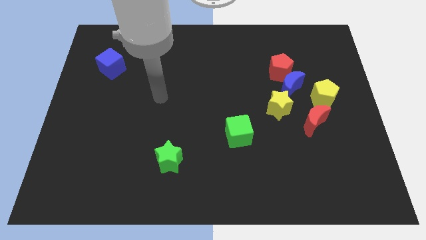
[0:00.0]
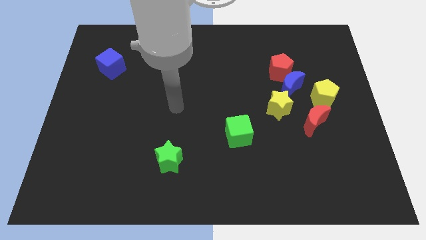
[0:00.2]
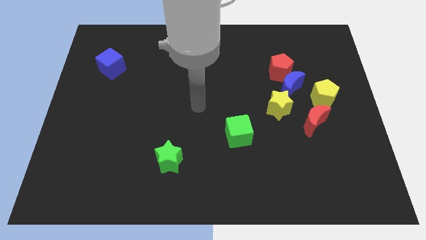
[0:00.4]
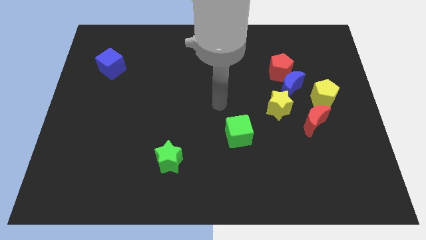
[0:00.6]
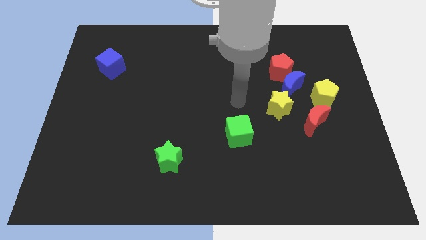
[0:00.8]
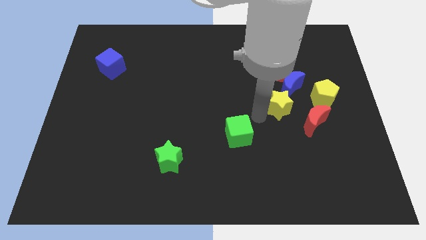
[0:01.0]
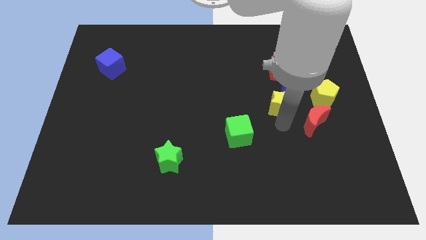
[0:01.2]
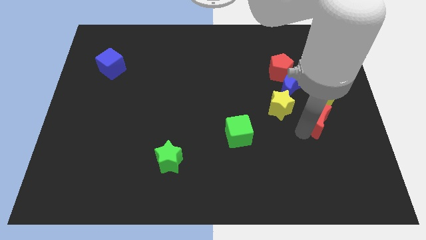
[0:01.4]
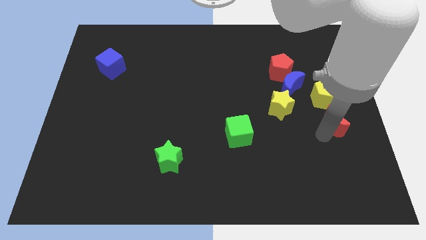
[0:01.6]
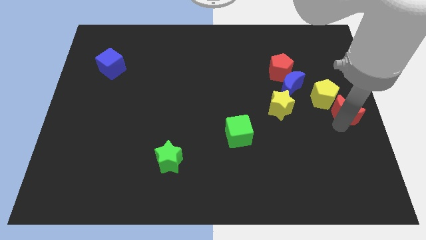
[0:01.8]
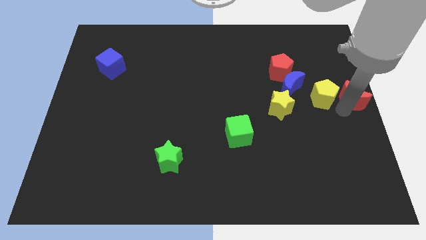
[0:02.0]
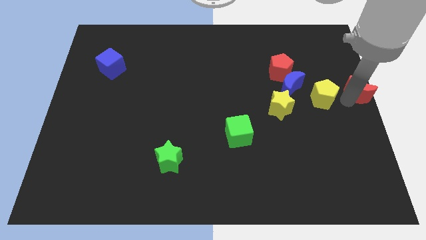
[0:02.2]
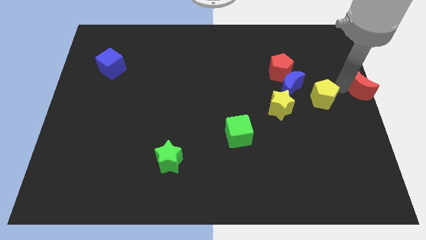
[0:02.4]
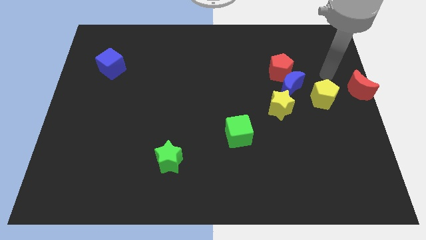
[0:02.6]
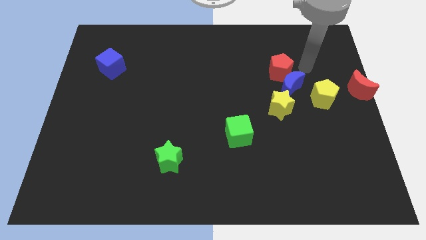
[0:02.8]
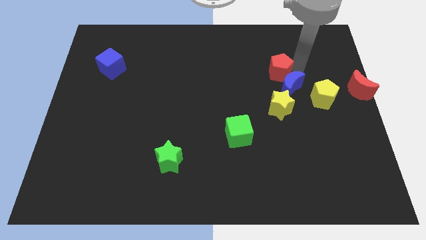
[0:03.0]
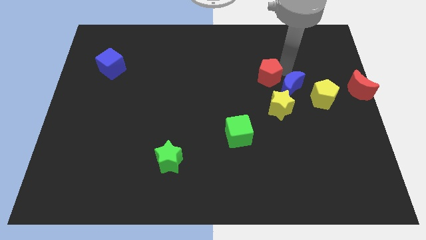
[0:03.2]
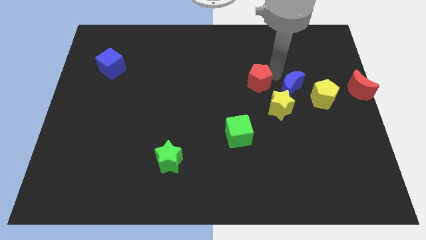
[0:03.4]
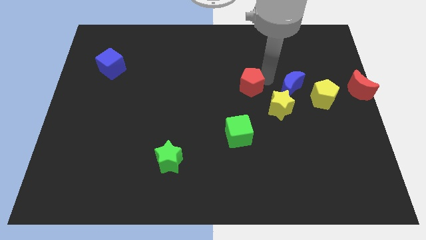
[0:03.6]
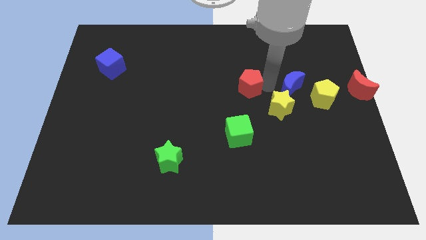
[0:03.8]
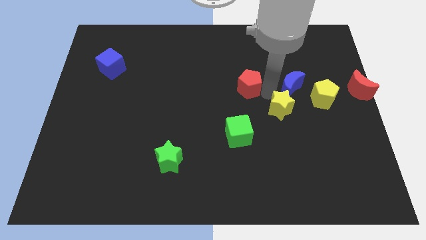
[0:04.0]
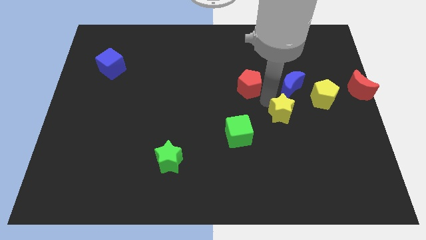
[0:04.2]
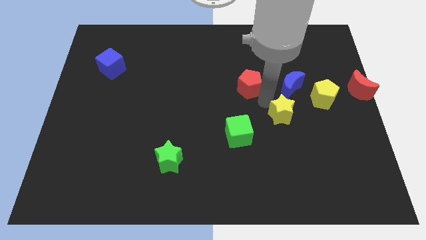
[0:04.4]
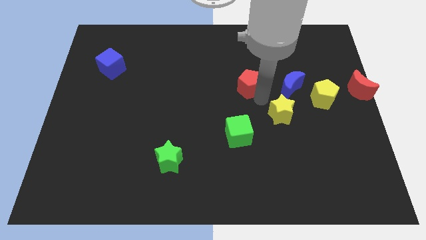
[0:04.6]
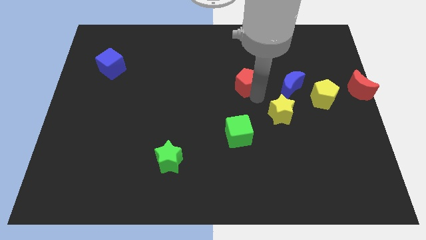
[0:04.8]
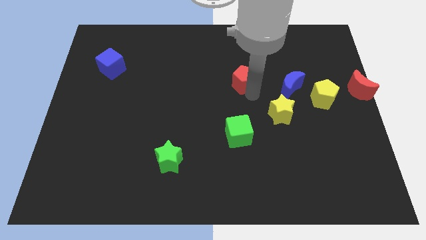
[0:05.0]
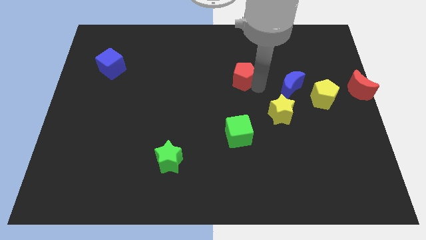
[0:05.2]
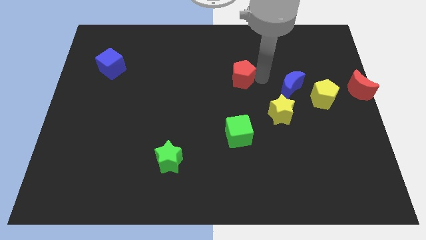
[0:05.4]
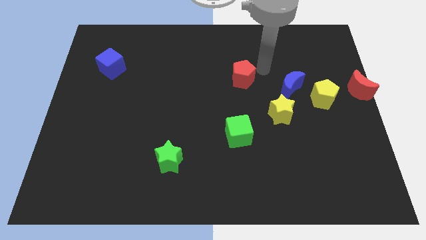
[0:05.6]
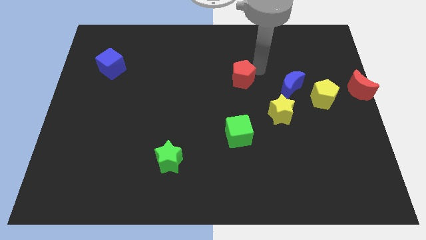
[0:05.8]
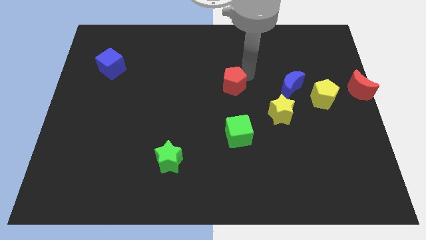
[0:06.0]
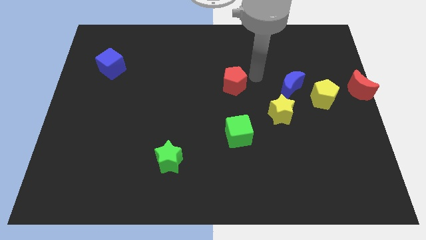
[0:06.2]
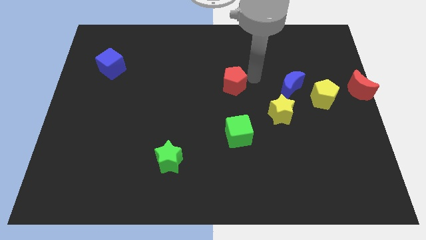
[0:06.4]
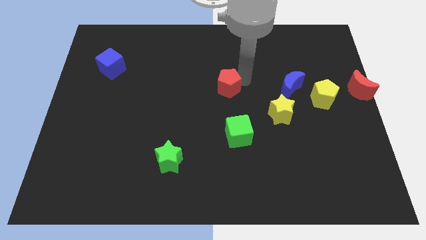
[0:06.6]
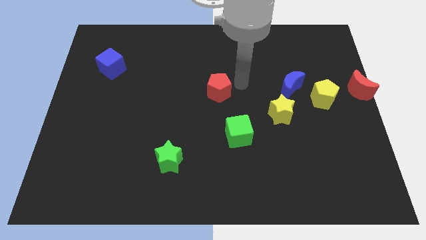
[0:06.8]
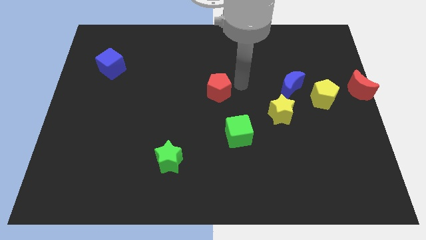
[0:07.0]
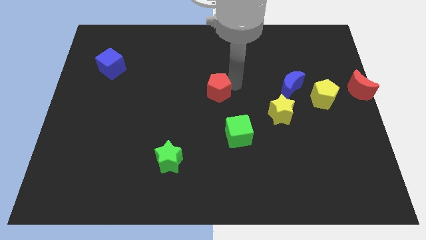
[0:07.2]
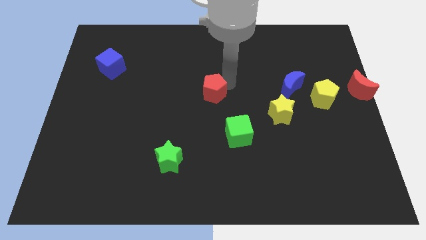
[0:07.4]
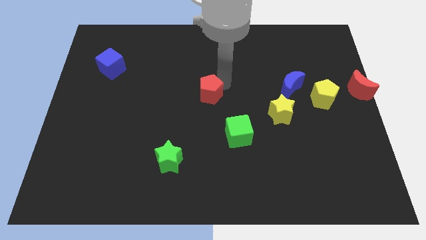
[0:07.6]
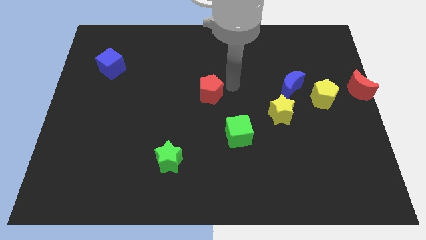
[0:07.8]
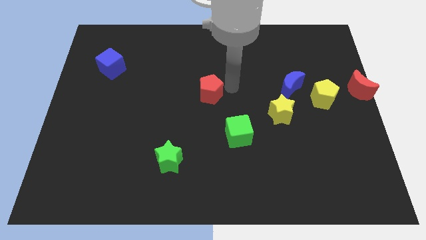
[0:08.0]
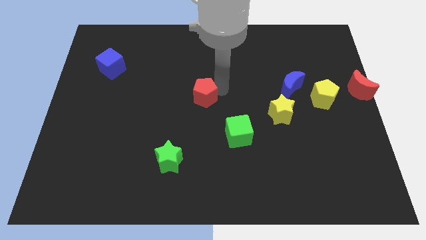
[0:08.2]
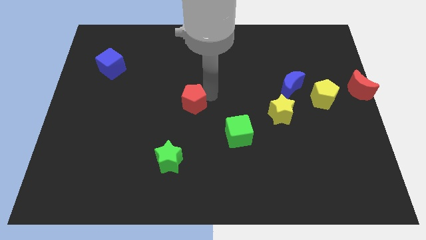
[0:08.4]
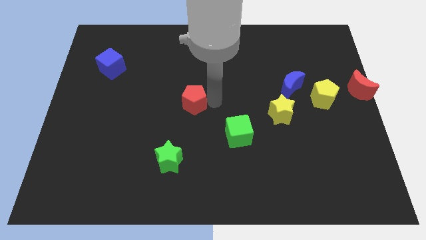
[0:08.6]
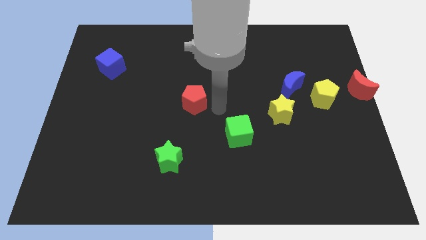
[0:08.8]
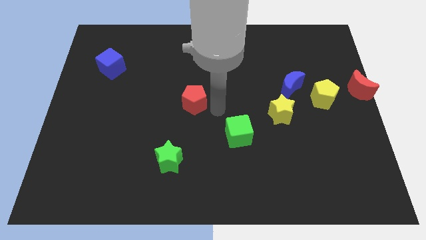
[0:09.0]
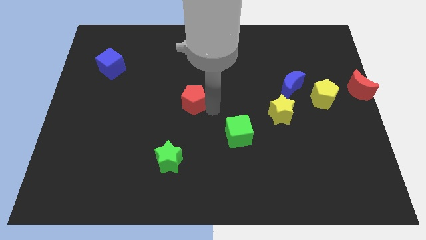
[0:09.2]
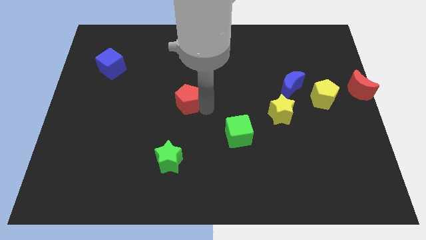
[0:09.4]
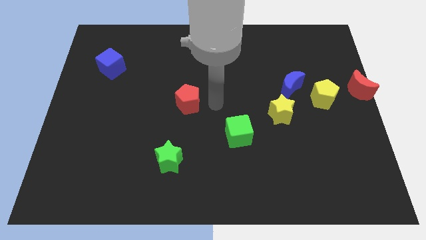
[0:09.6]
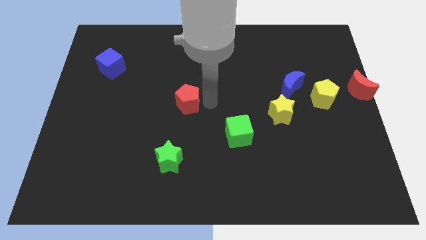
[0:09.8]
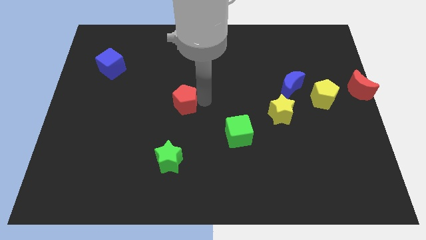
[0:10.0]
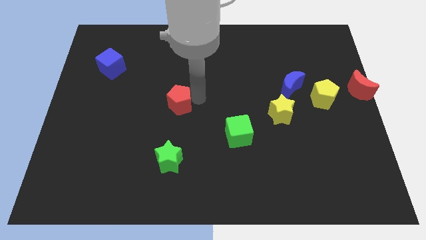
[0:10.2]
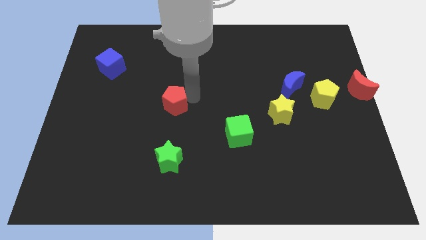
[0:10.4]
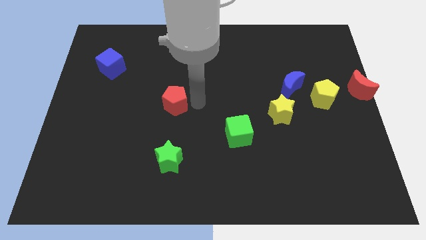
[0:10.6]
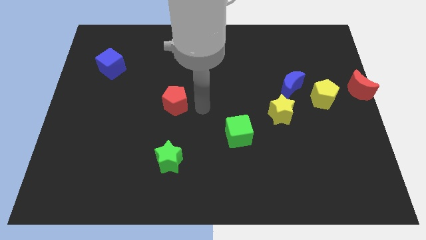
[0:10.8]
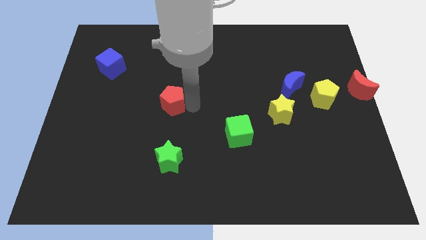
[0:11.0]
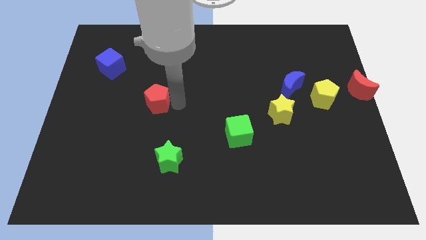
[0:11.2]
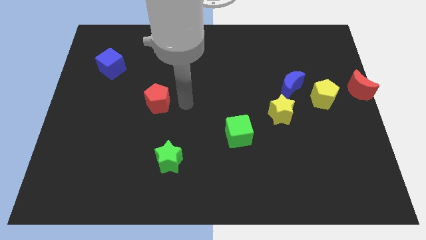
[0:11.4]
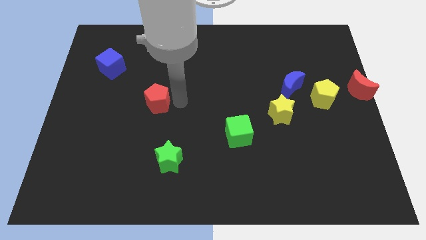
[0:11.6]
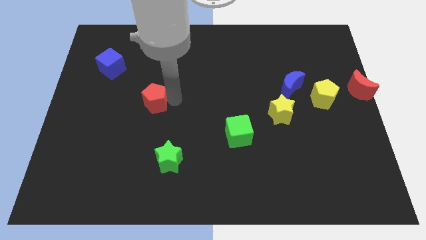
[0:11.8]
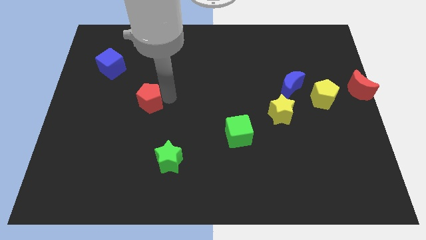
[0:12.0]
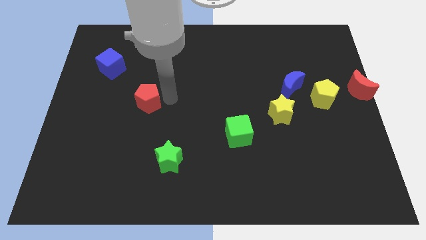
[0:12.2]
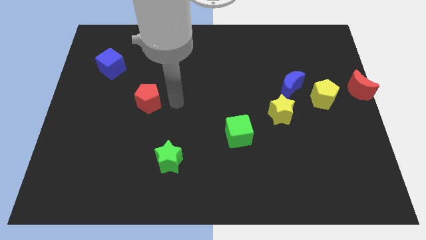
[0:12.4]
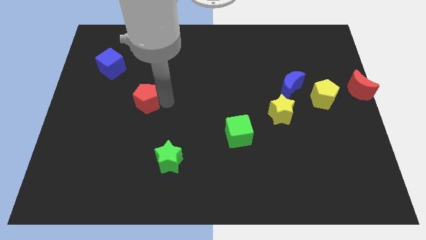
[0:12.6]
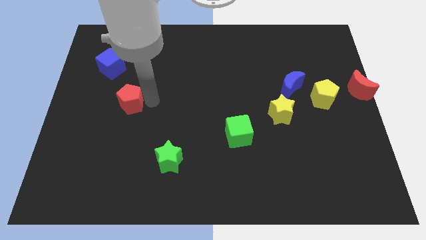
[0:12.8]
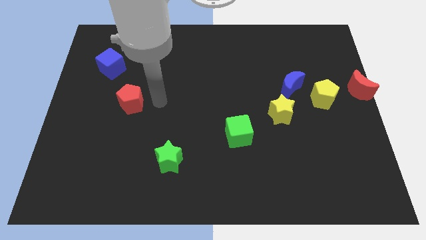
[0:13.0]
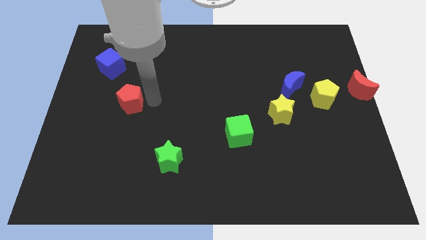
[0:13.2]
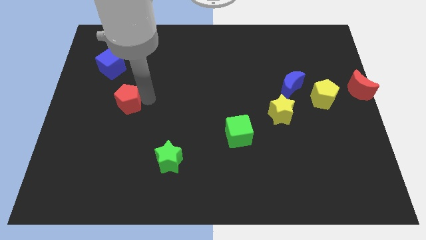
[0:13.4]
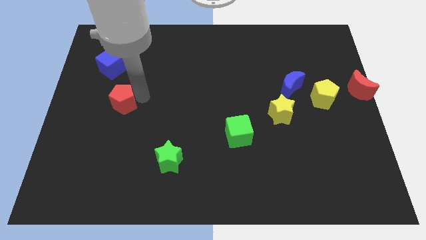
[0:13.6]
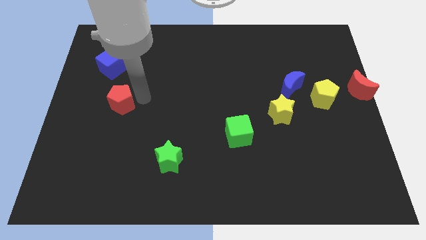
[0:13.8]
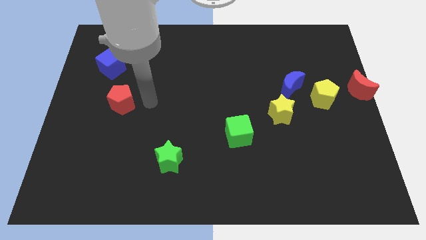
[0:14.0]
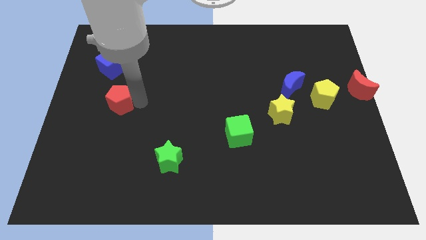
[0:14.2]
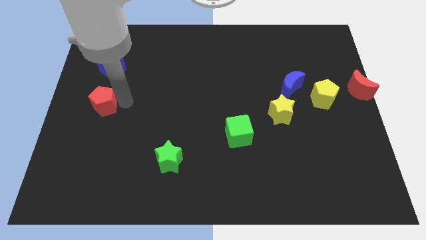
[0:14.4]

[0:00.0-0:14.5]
push the red pentagon to the left side
